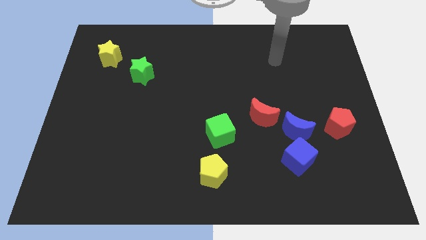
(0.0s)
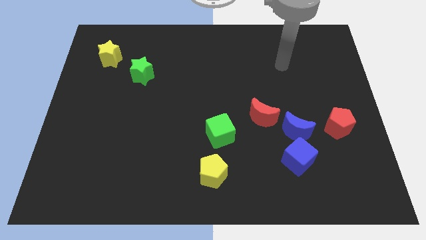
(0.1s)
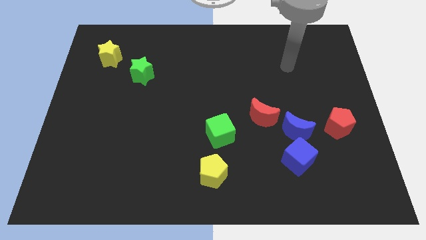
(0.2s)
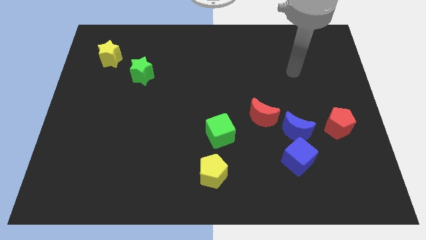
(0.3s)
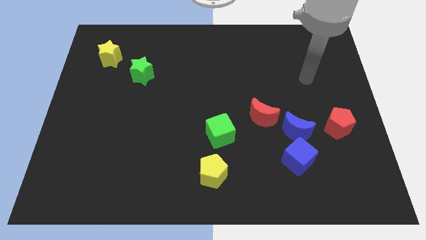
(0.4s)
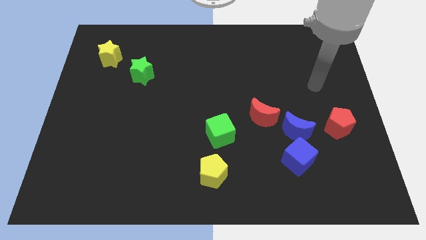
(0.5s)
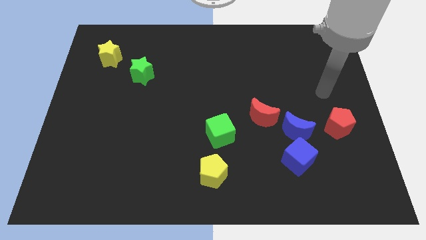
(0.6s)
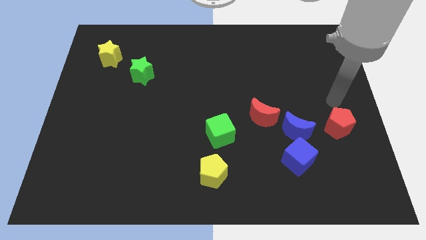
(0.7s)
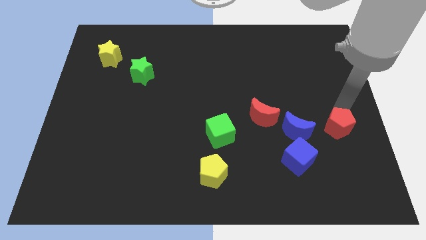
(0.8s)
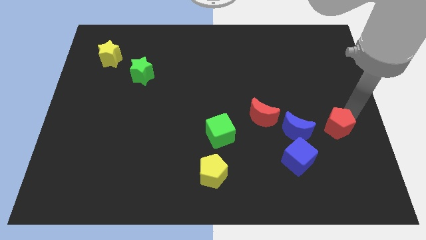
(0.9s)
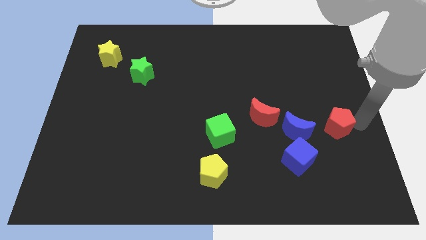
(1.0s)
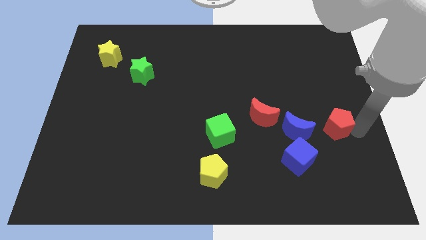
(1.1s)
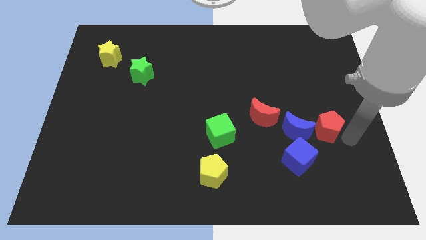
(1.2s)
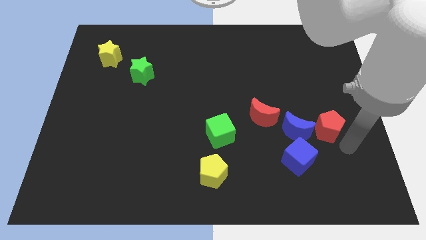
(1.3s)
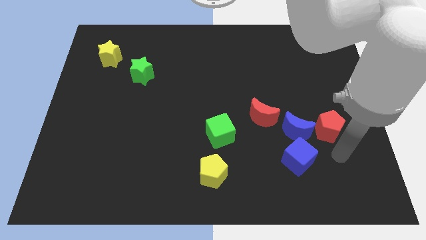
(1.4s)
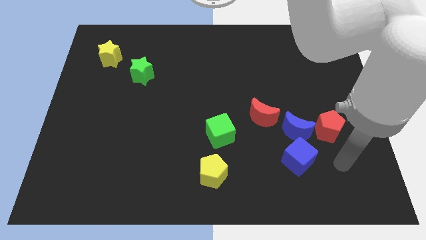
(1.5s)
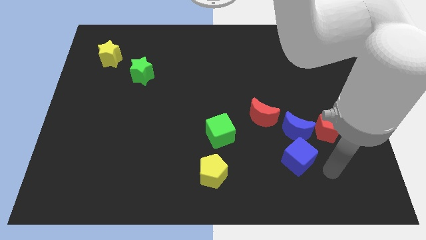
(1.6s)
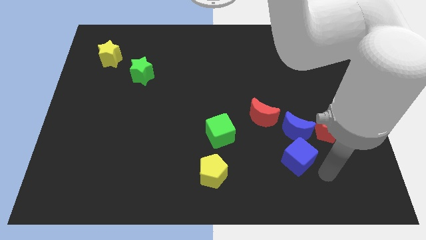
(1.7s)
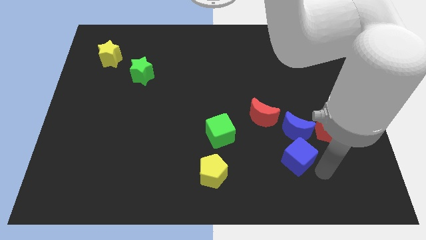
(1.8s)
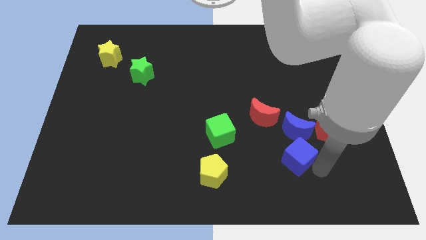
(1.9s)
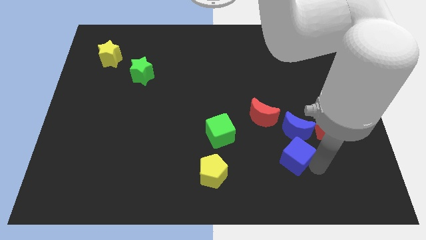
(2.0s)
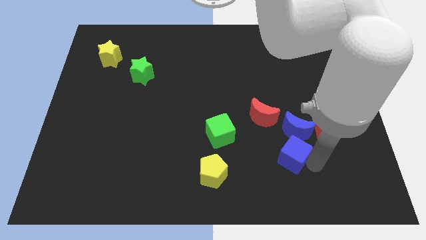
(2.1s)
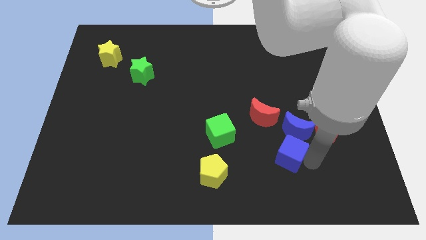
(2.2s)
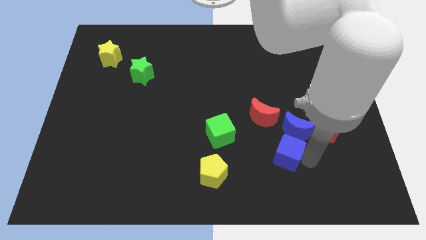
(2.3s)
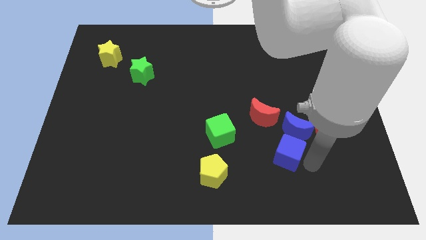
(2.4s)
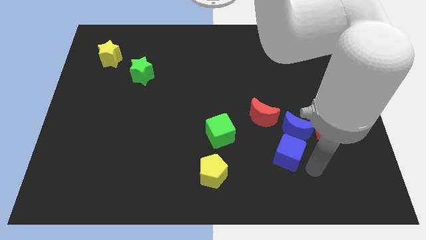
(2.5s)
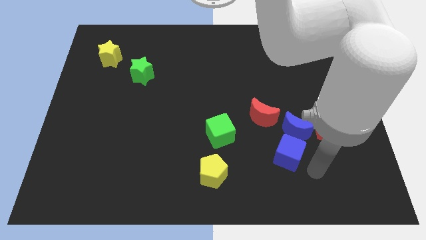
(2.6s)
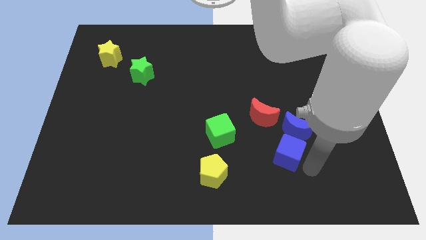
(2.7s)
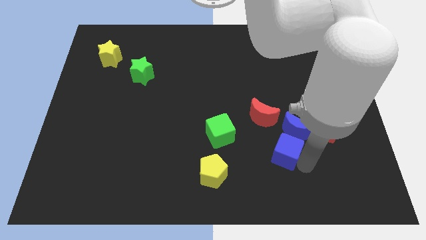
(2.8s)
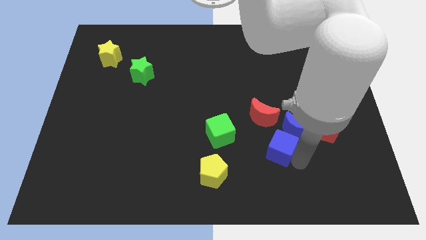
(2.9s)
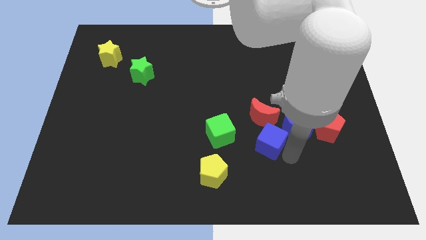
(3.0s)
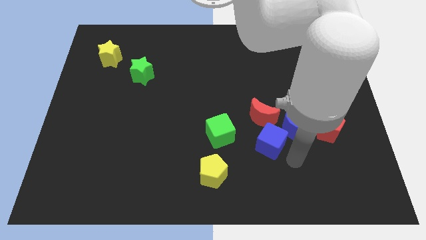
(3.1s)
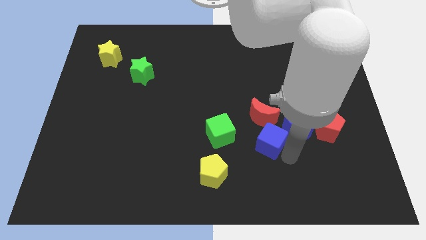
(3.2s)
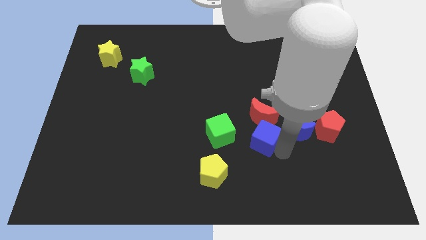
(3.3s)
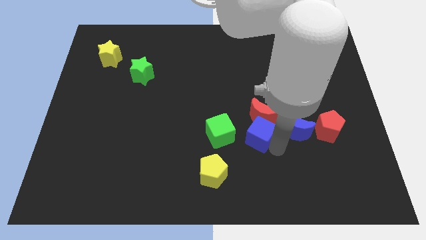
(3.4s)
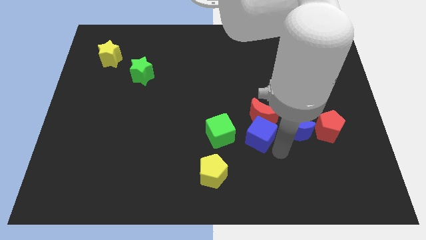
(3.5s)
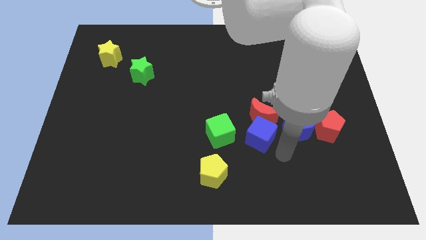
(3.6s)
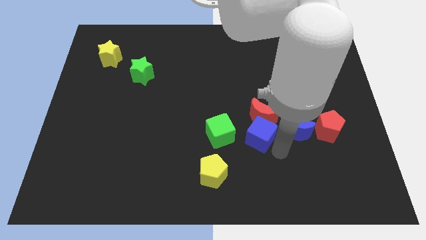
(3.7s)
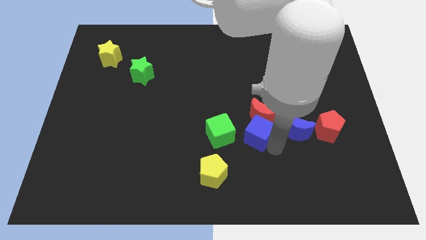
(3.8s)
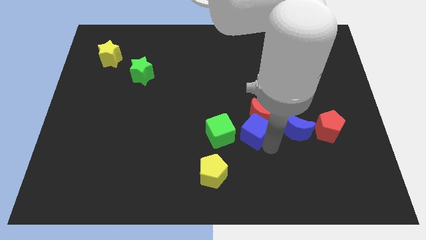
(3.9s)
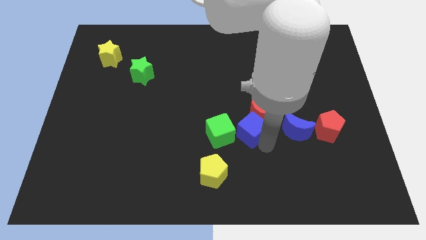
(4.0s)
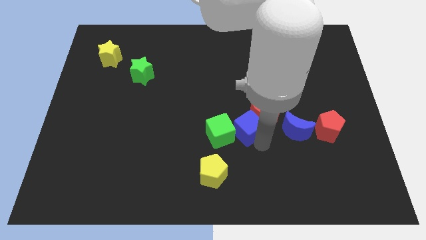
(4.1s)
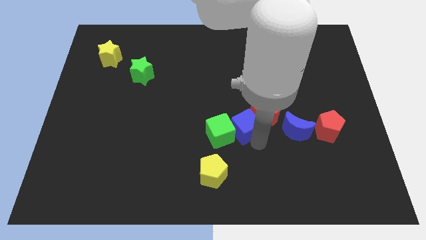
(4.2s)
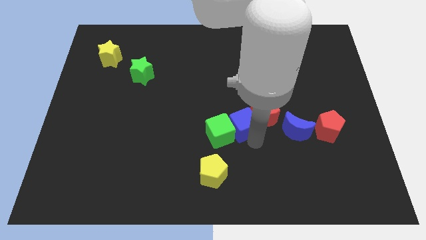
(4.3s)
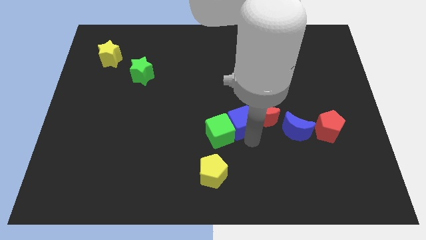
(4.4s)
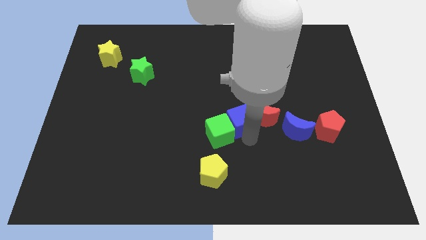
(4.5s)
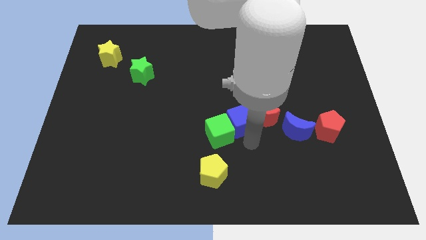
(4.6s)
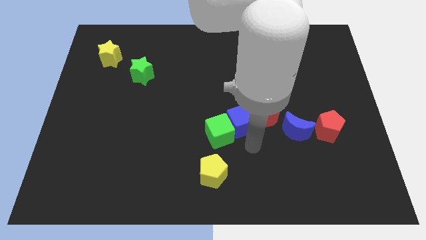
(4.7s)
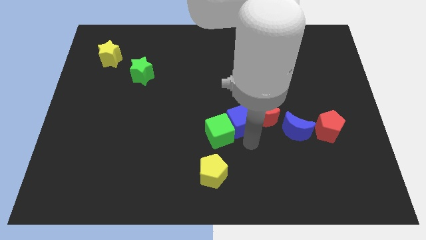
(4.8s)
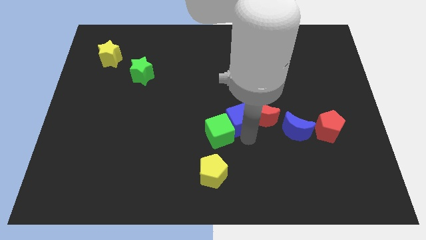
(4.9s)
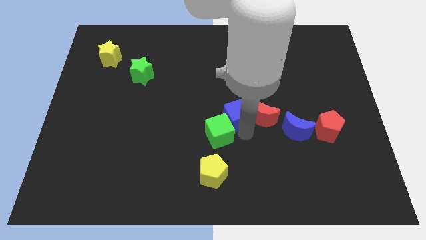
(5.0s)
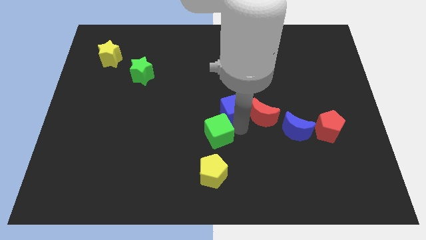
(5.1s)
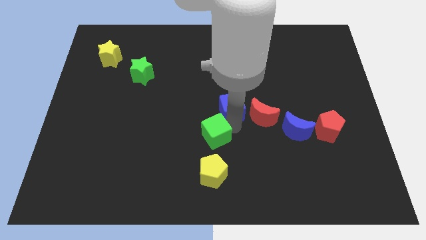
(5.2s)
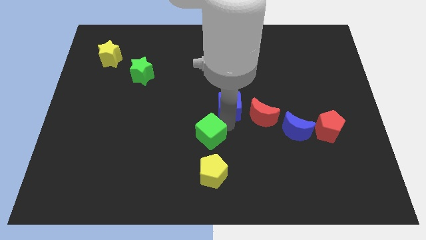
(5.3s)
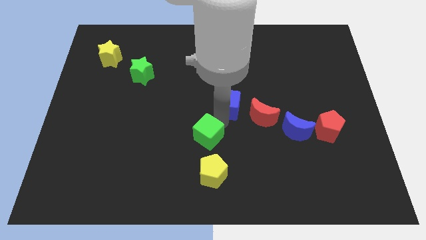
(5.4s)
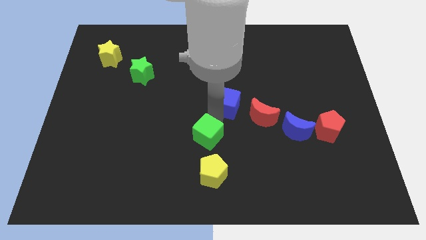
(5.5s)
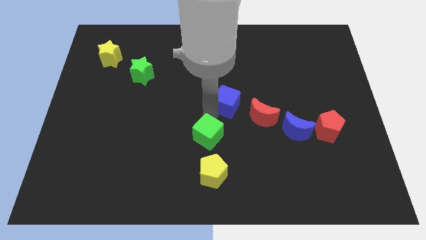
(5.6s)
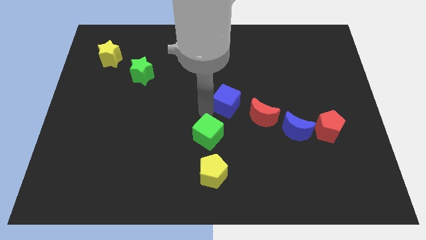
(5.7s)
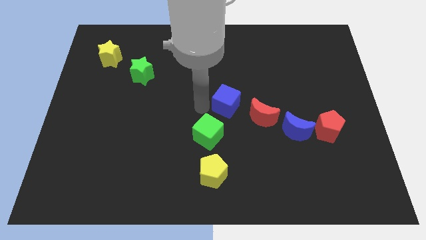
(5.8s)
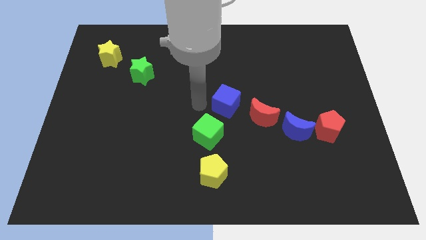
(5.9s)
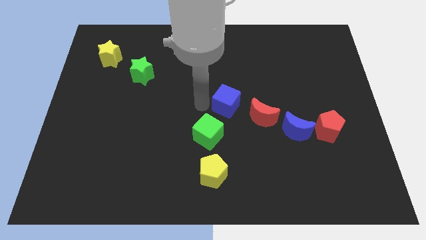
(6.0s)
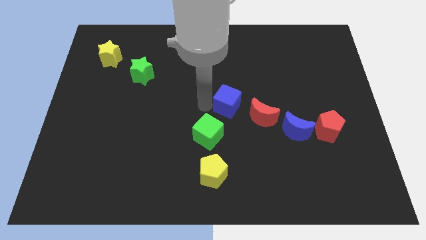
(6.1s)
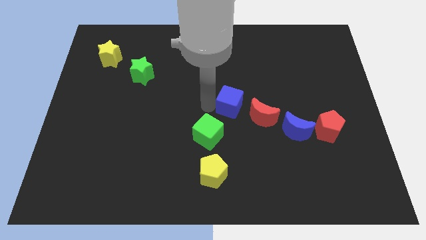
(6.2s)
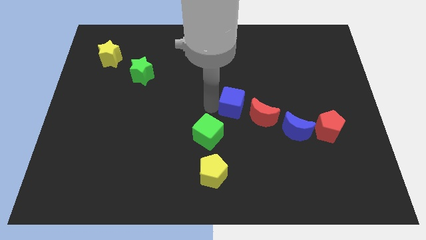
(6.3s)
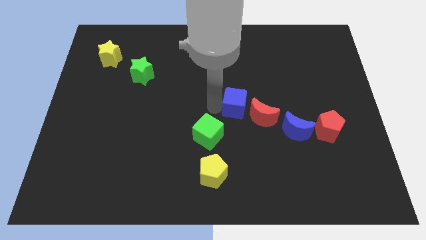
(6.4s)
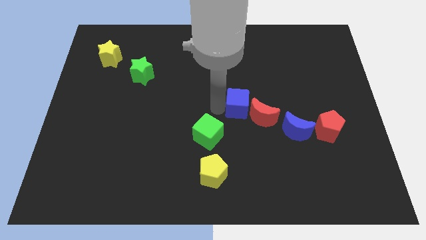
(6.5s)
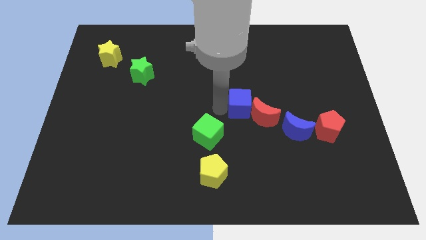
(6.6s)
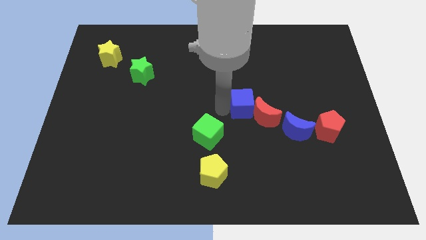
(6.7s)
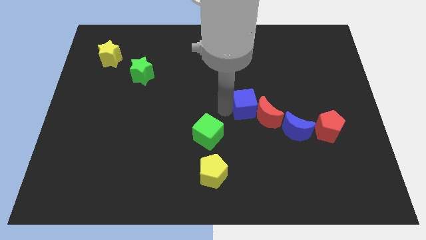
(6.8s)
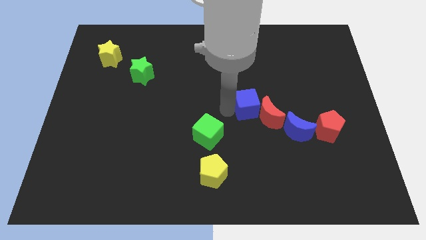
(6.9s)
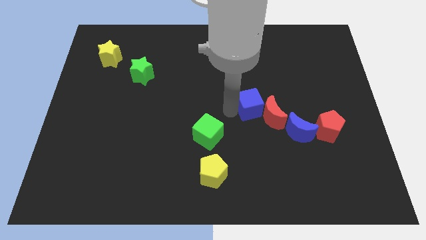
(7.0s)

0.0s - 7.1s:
move the blue cube to the top left of the blue moon
